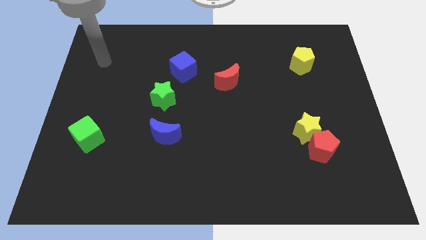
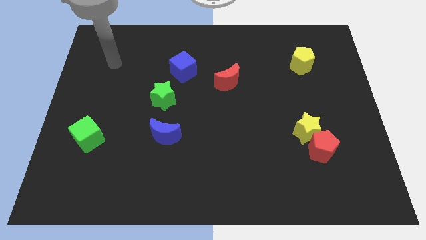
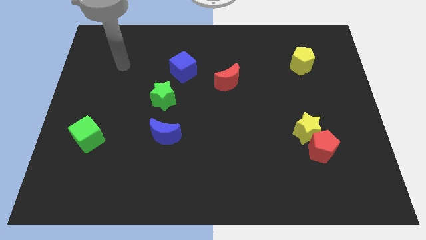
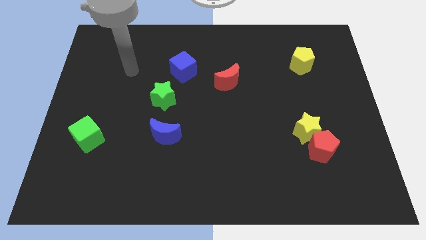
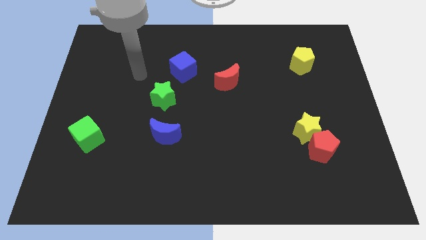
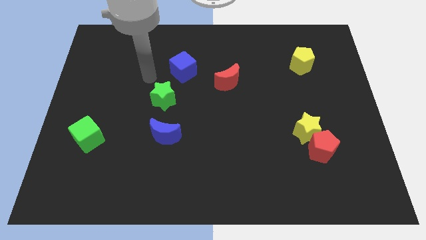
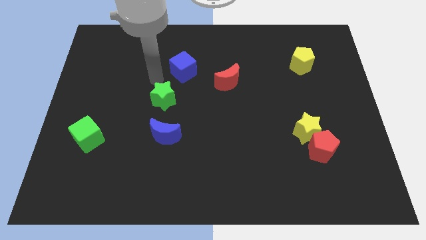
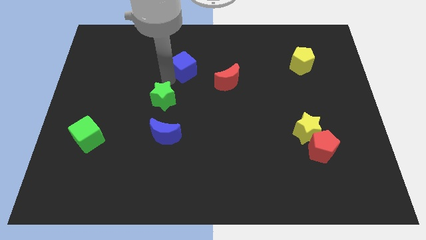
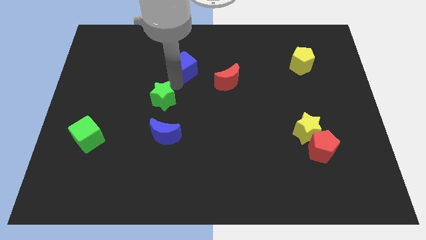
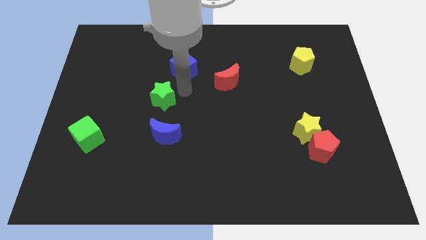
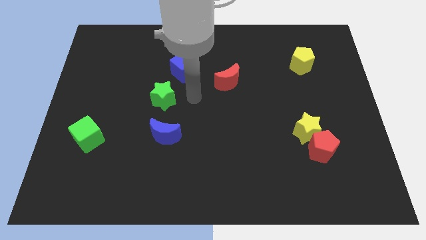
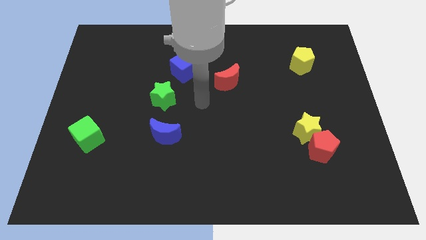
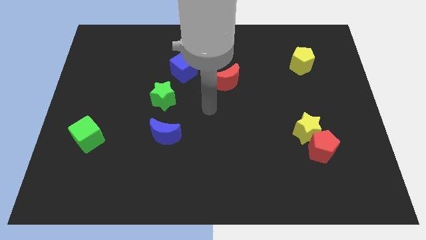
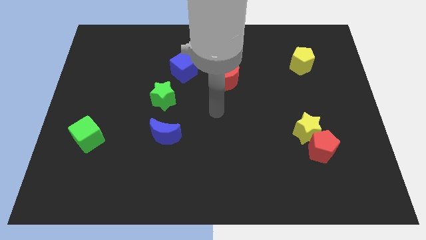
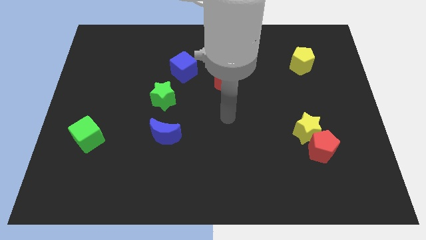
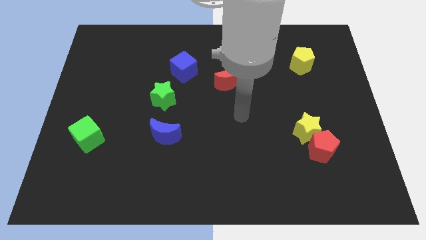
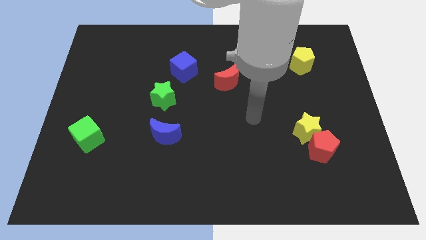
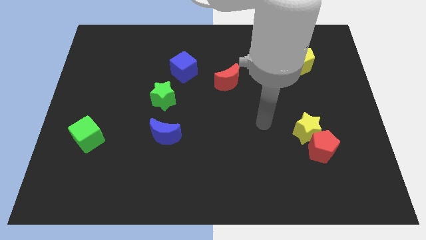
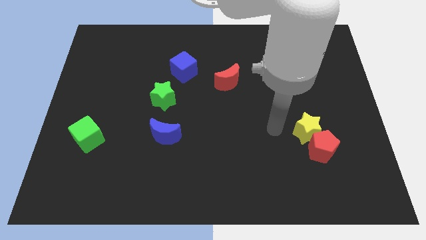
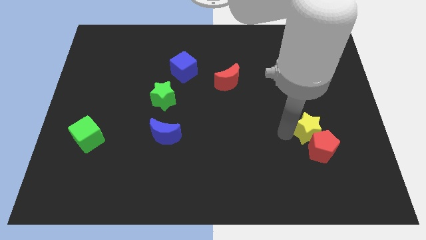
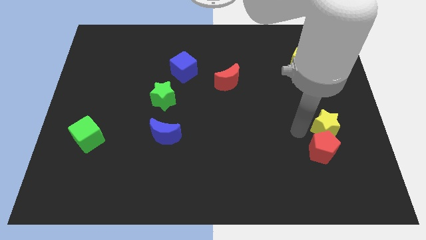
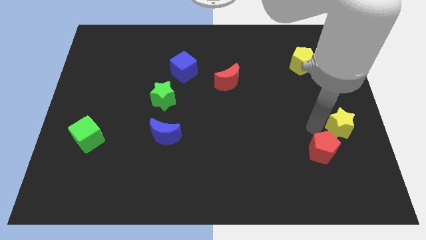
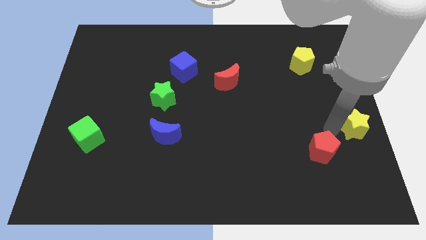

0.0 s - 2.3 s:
separate the red pentagon from the yellow star

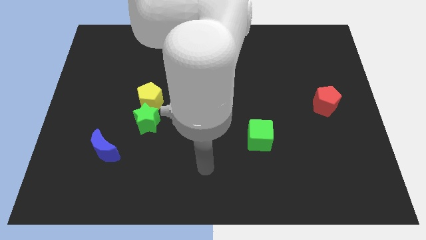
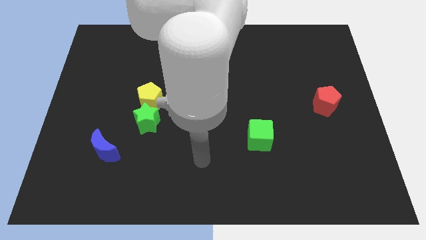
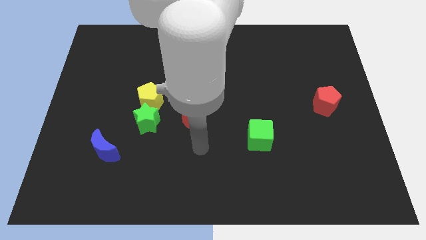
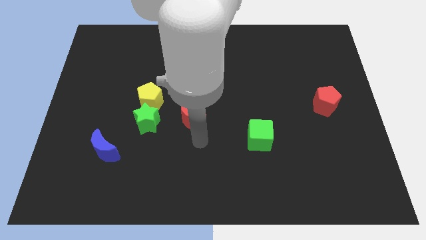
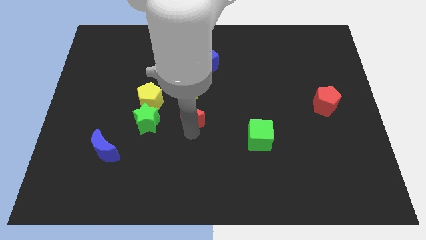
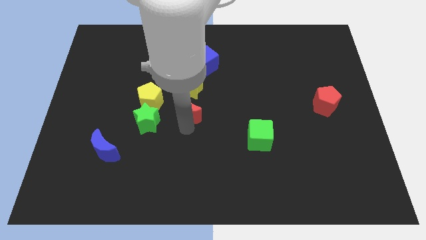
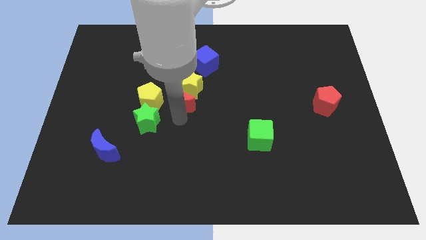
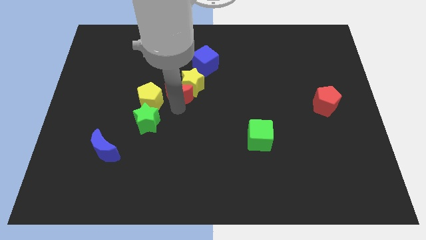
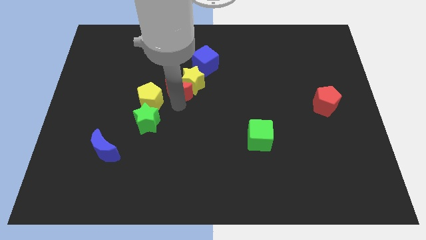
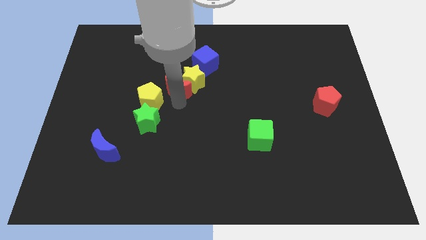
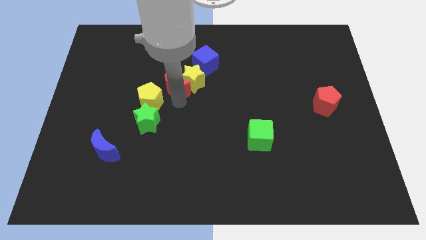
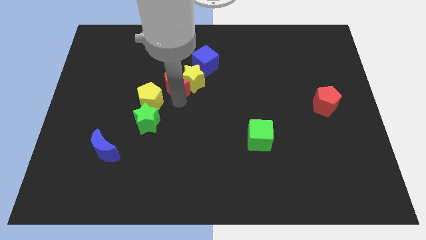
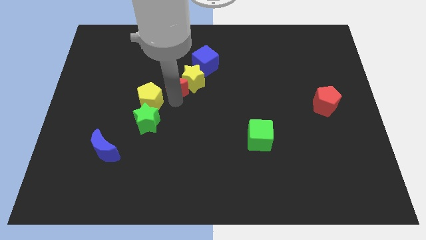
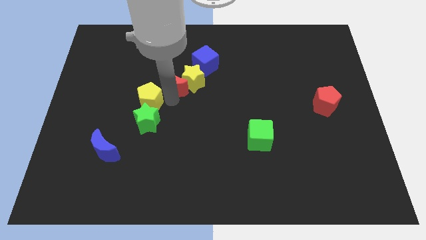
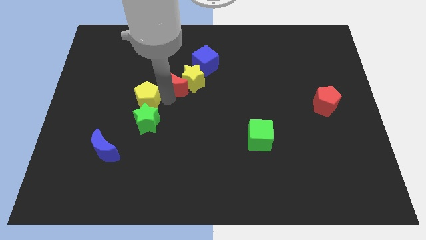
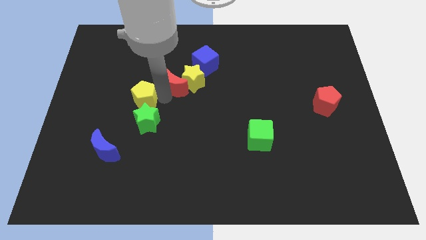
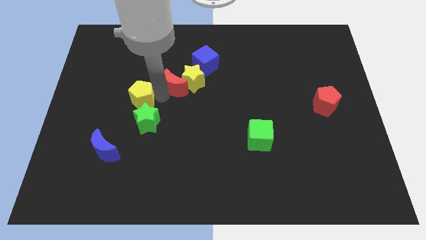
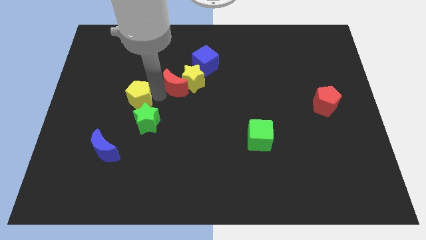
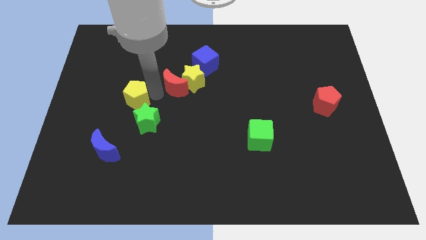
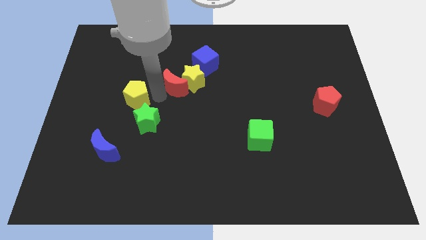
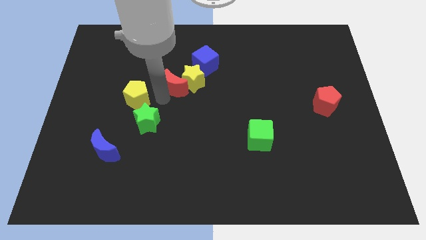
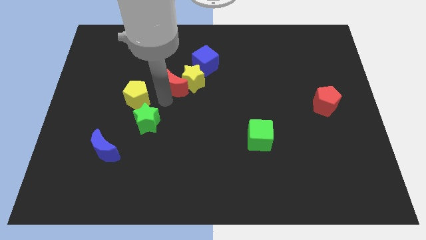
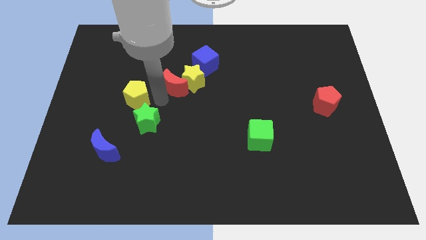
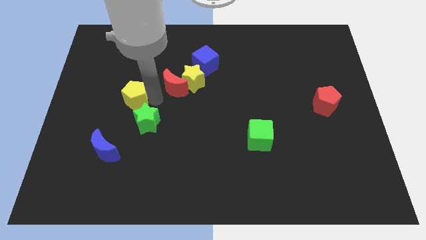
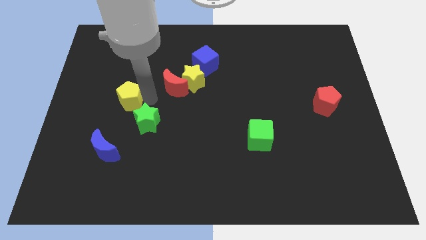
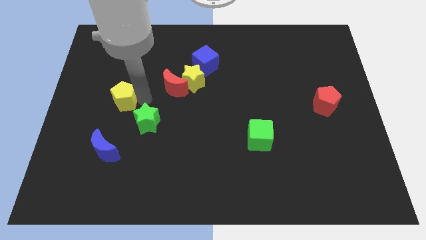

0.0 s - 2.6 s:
separate the yellow pentagon from the green star and yellow star

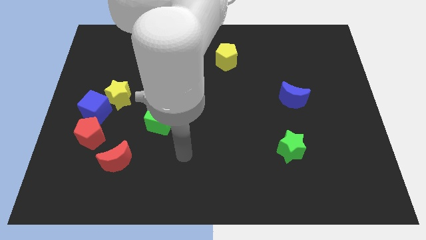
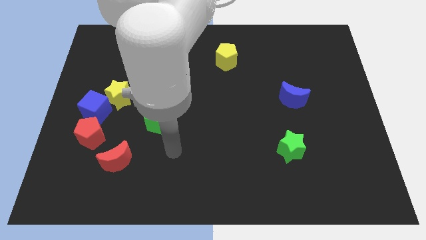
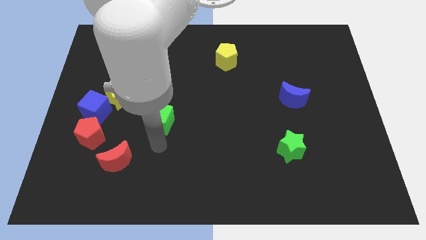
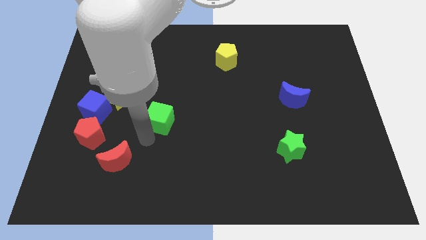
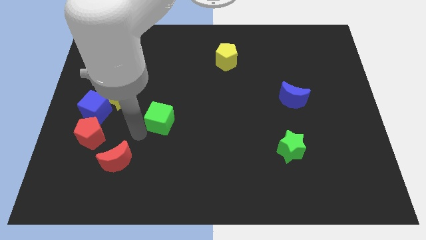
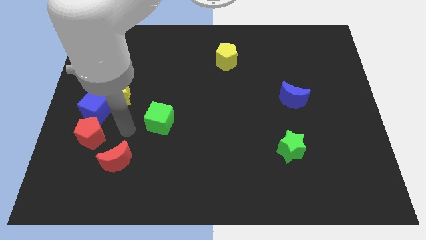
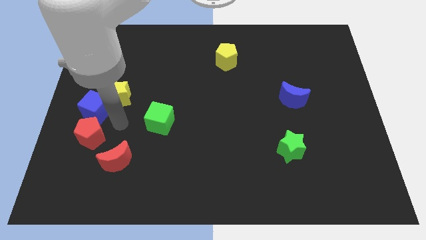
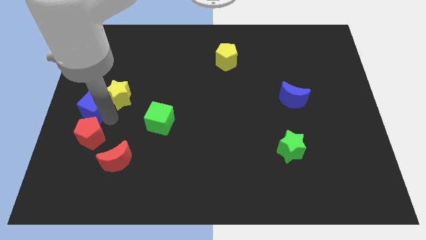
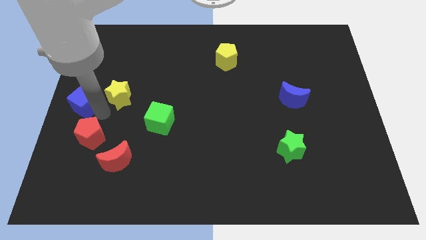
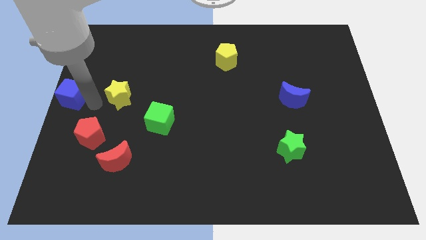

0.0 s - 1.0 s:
pull the yellow star apart from the blue cube

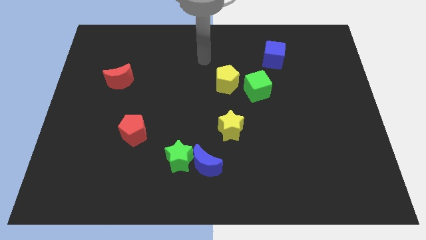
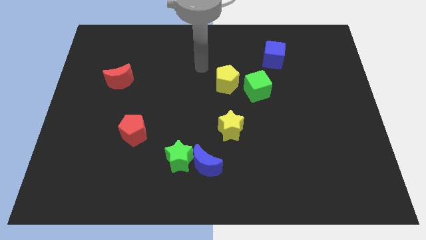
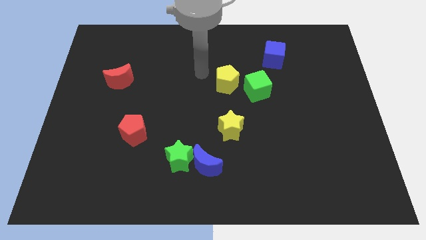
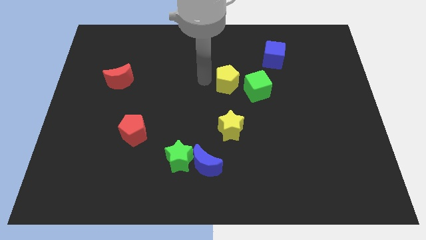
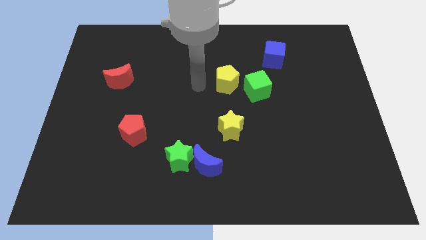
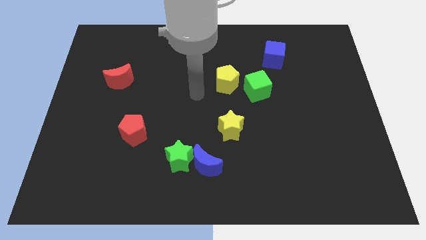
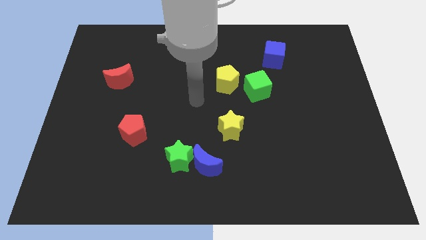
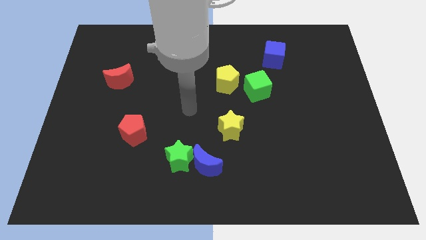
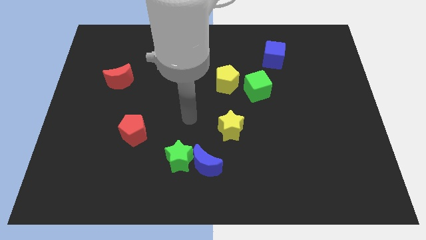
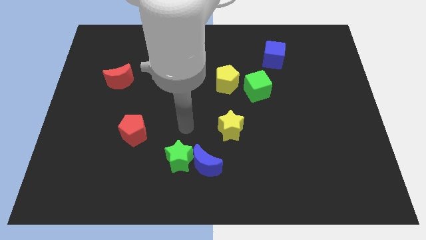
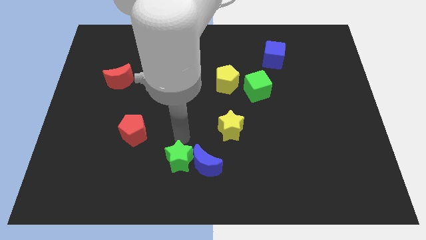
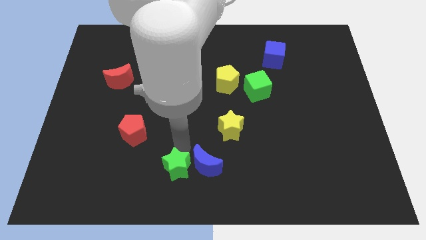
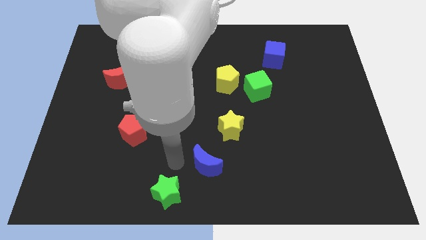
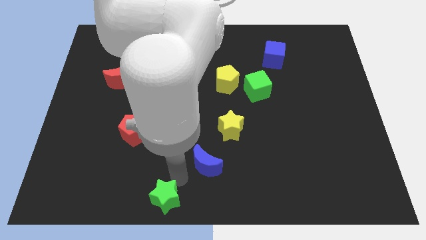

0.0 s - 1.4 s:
separate the blue moon from the green star

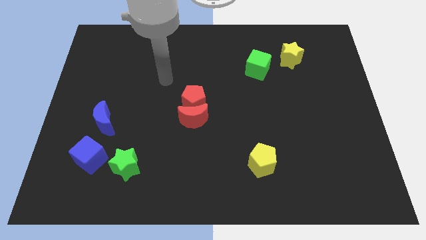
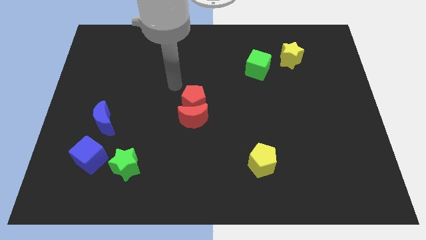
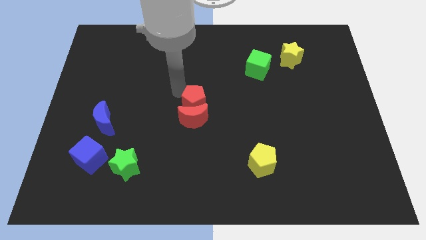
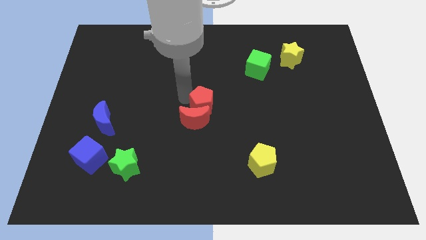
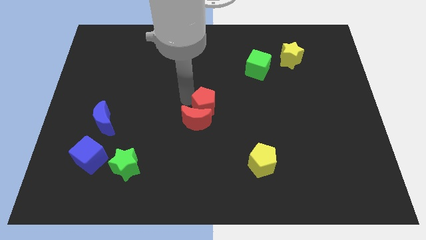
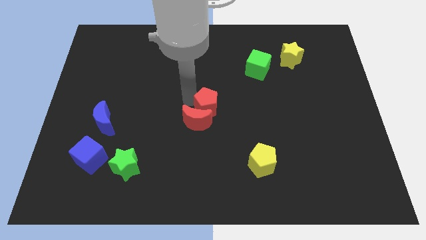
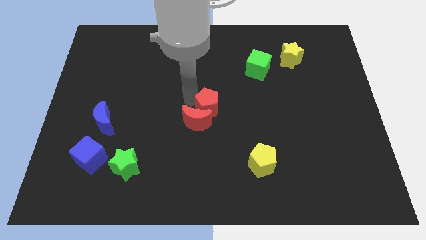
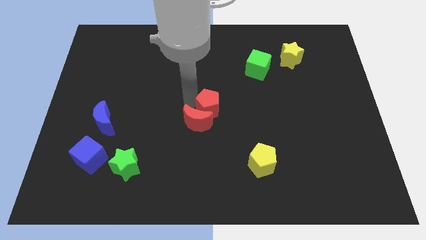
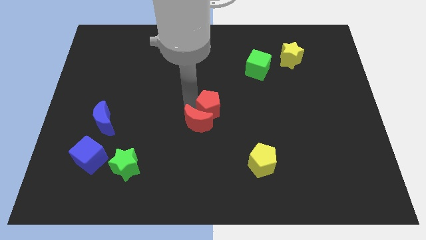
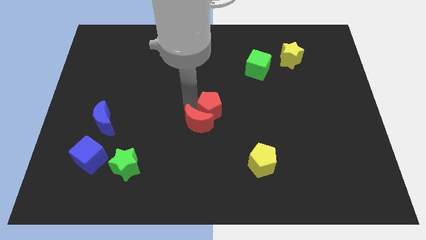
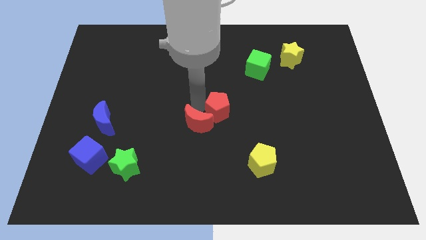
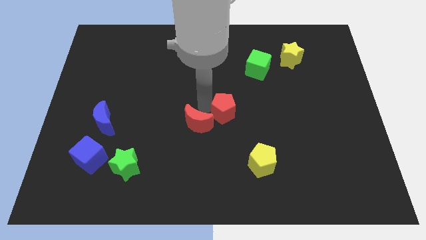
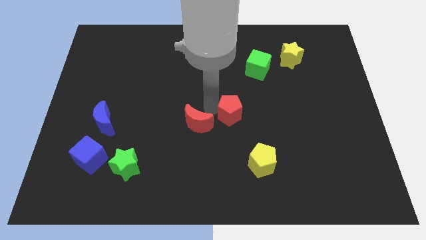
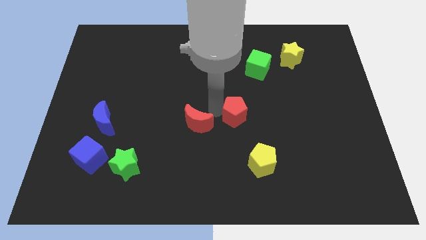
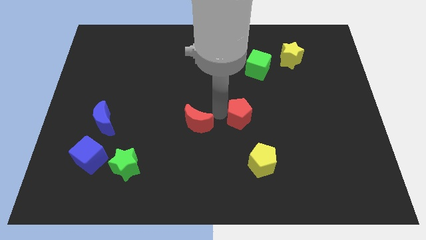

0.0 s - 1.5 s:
move the red moon away from the red pentagon

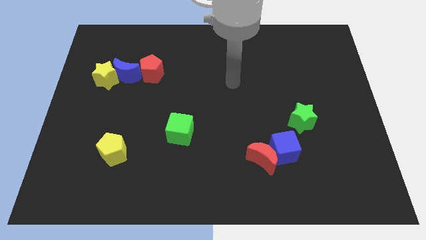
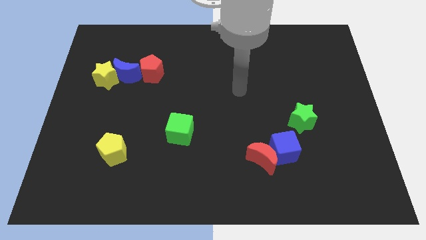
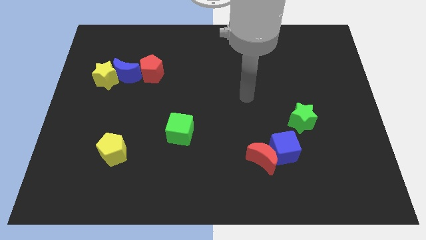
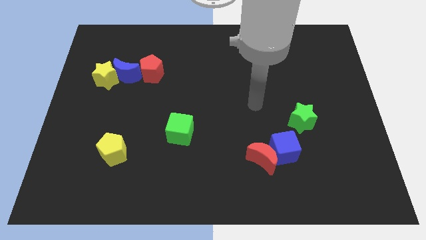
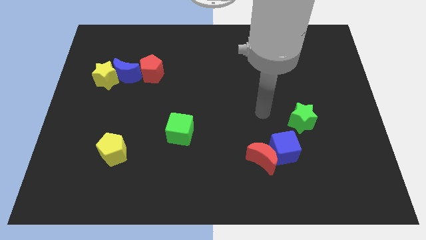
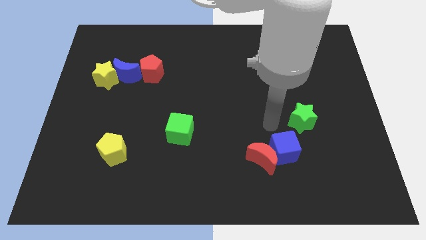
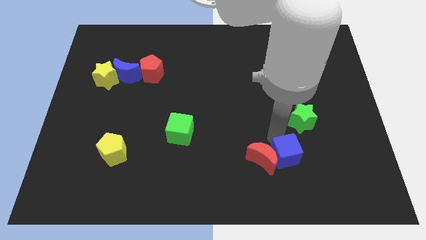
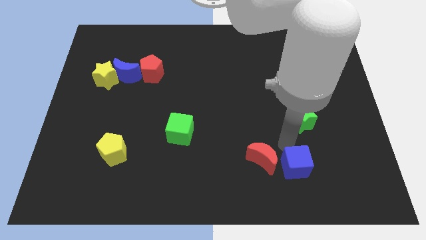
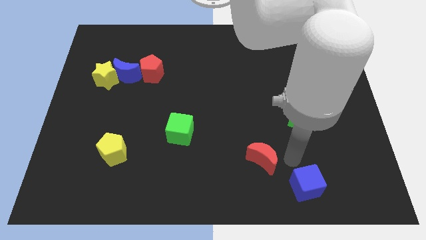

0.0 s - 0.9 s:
move the red moon away from the blue cube
